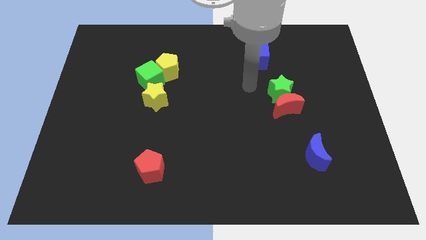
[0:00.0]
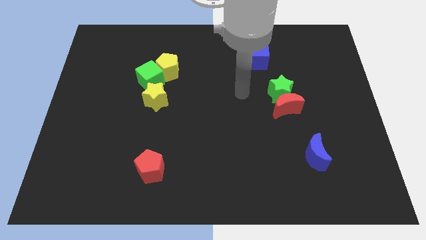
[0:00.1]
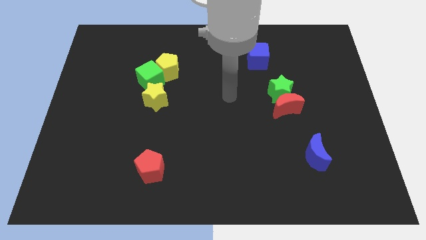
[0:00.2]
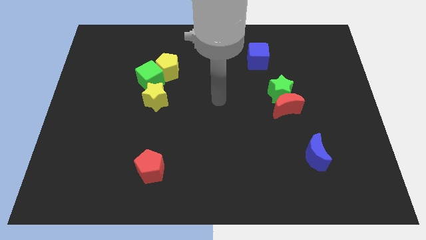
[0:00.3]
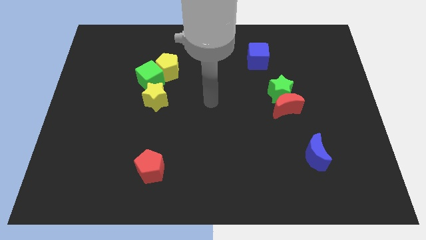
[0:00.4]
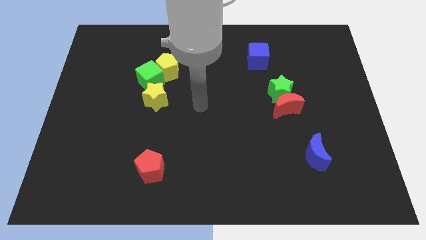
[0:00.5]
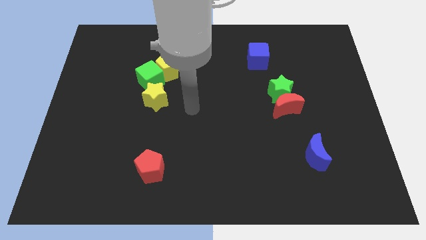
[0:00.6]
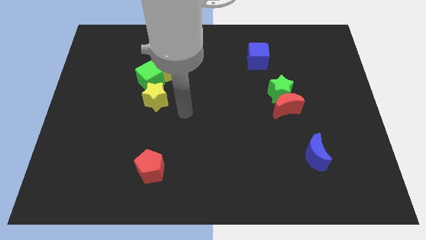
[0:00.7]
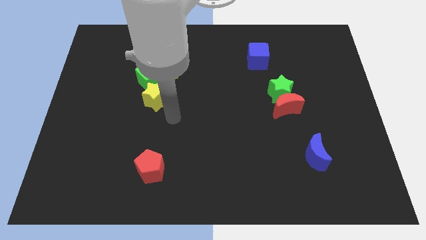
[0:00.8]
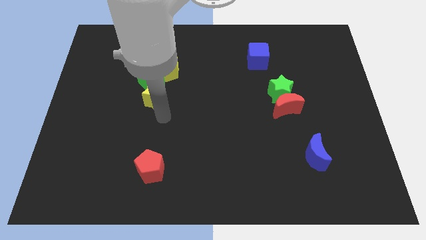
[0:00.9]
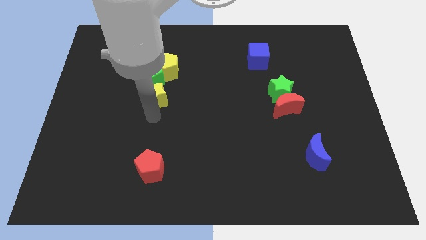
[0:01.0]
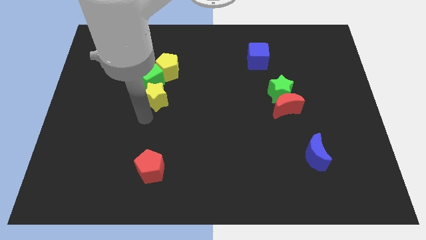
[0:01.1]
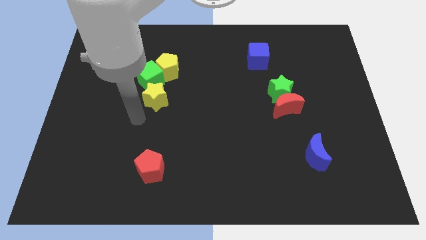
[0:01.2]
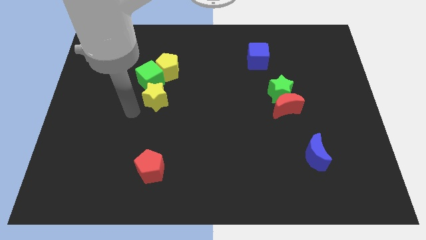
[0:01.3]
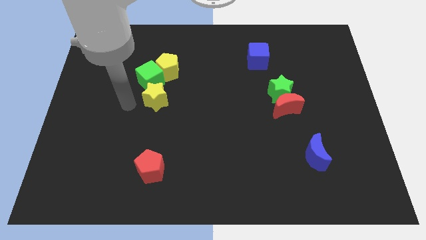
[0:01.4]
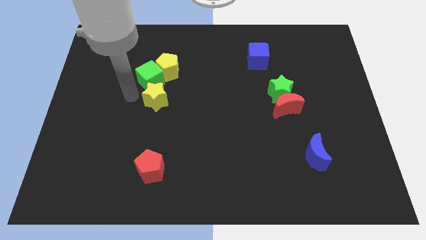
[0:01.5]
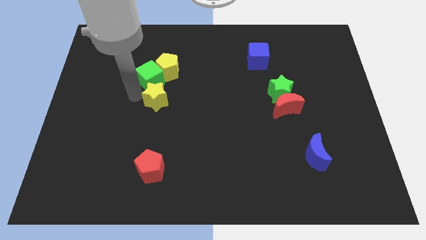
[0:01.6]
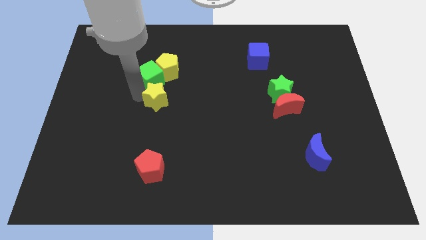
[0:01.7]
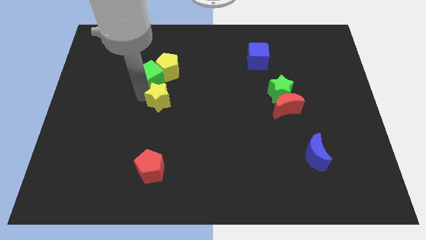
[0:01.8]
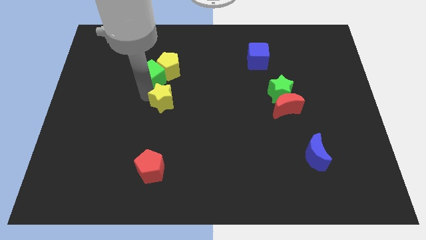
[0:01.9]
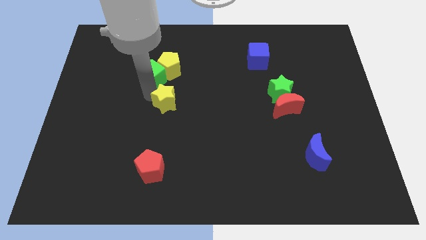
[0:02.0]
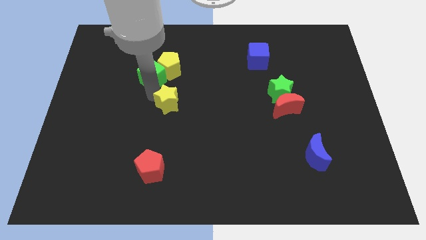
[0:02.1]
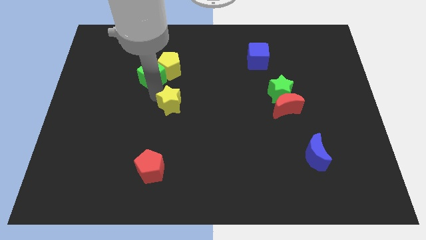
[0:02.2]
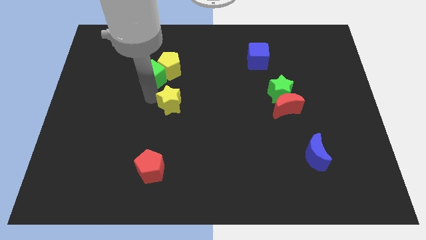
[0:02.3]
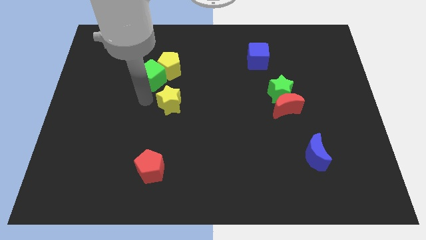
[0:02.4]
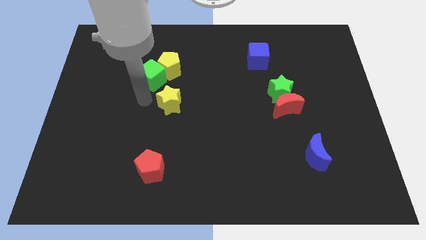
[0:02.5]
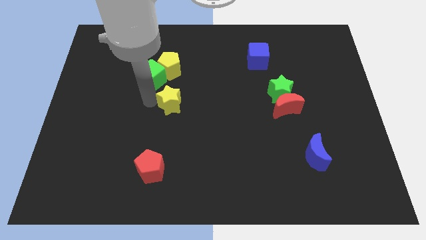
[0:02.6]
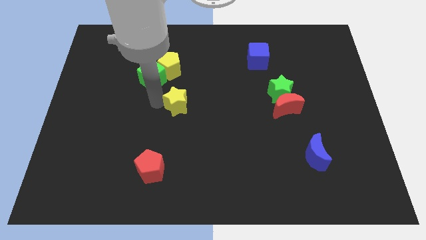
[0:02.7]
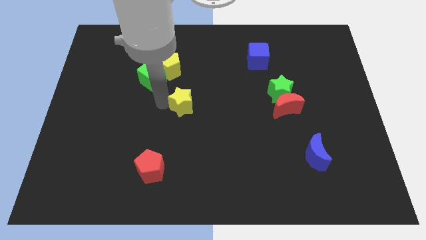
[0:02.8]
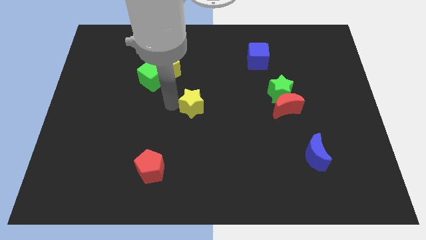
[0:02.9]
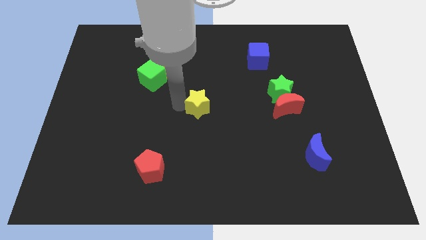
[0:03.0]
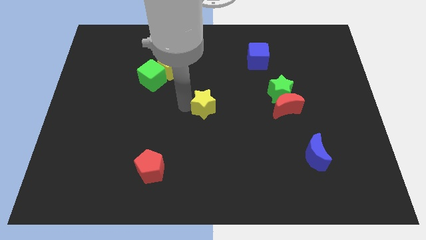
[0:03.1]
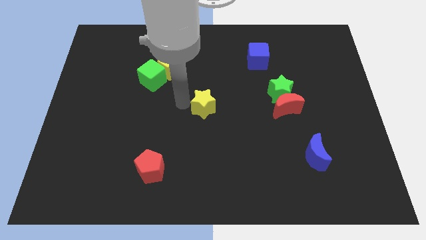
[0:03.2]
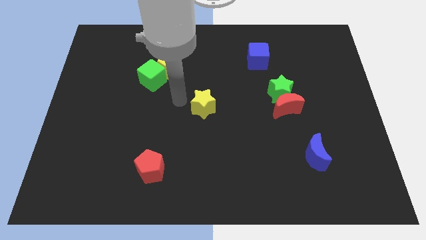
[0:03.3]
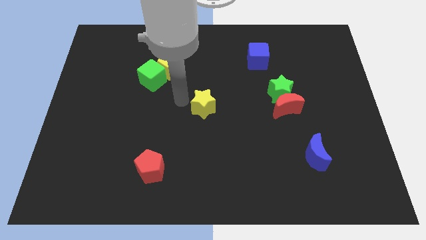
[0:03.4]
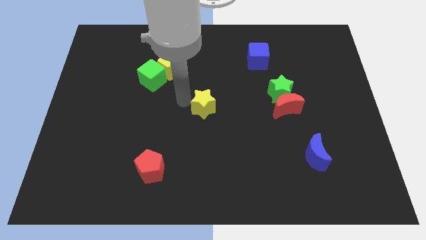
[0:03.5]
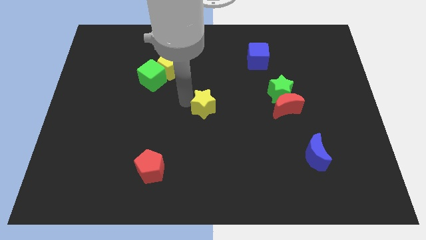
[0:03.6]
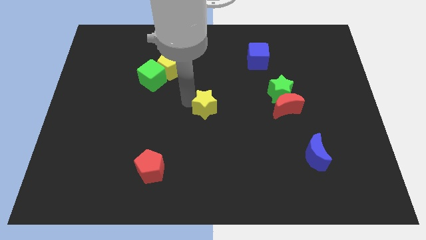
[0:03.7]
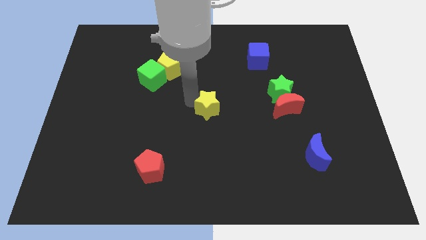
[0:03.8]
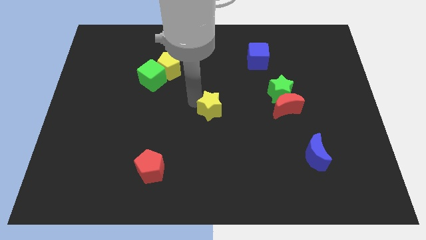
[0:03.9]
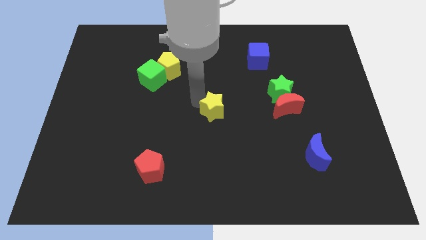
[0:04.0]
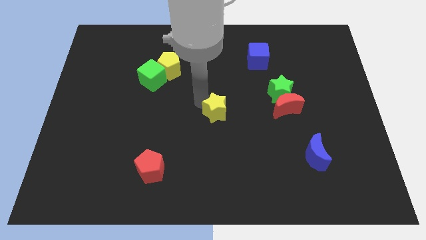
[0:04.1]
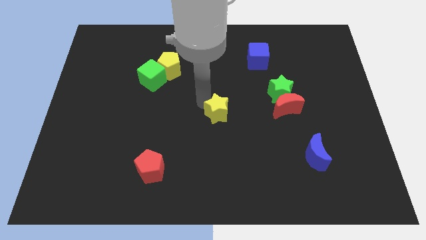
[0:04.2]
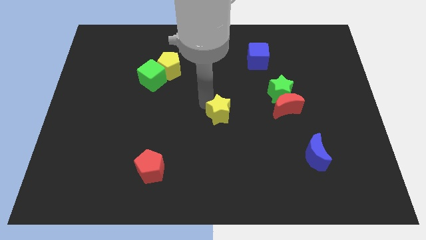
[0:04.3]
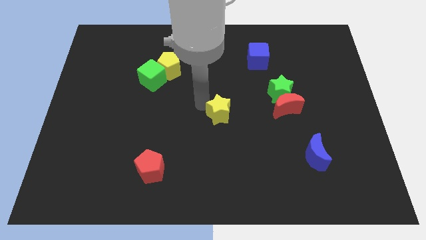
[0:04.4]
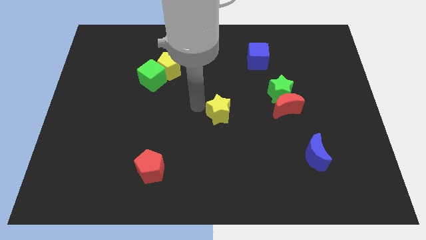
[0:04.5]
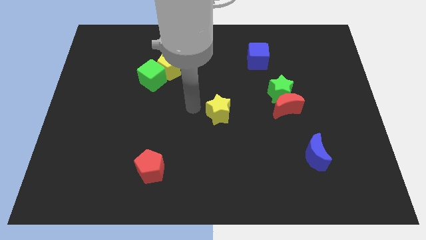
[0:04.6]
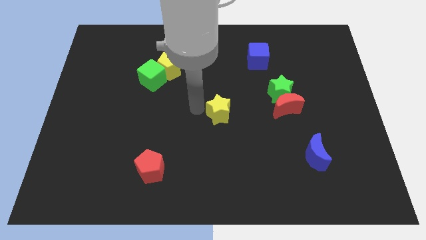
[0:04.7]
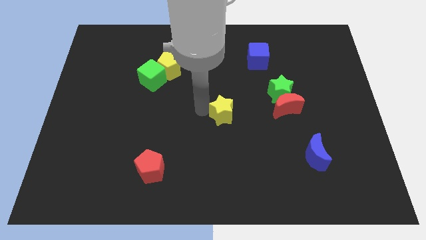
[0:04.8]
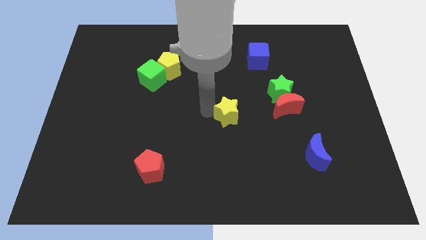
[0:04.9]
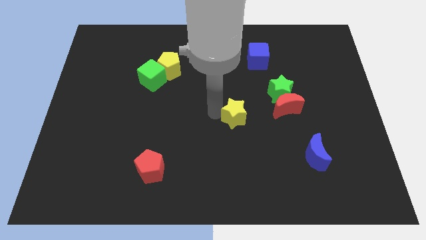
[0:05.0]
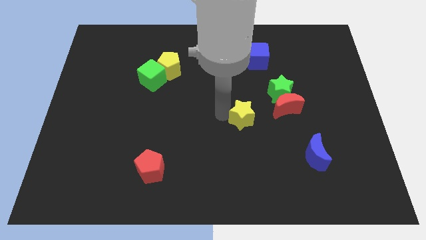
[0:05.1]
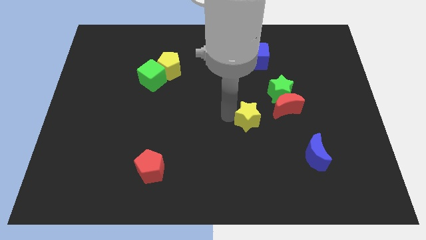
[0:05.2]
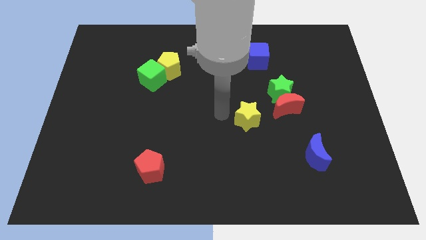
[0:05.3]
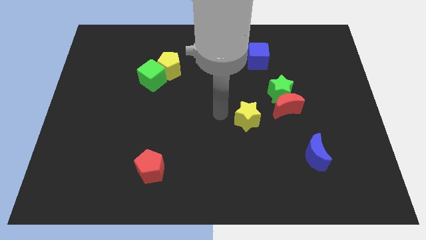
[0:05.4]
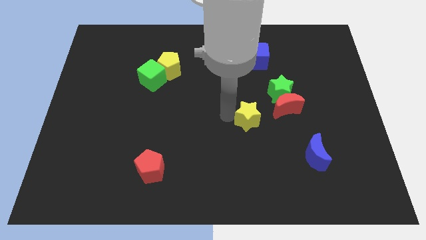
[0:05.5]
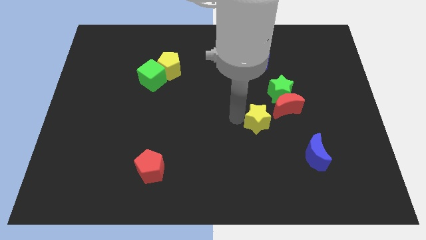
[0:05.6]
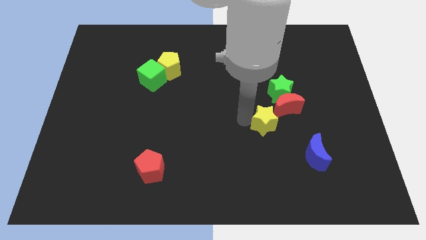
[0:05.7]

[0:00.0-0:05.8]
move the yellow star to the bottom of the green star
